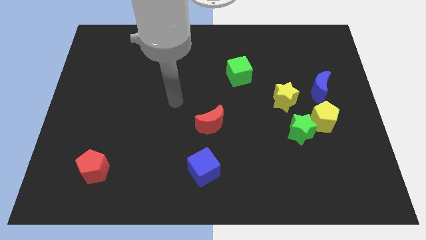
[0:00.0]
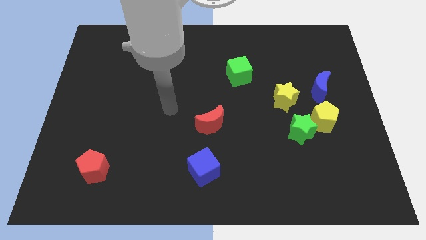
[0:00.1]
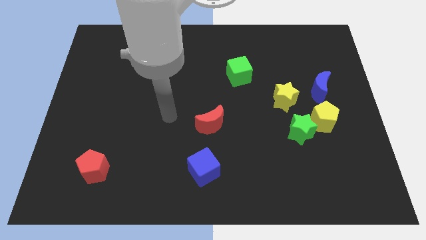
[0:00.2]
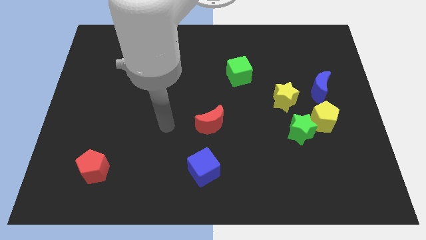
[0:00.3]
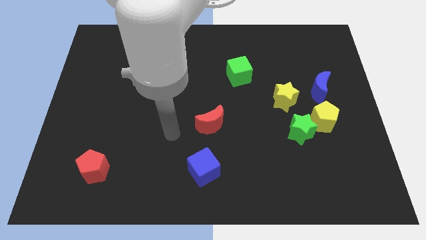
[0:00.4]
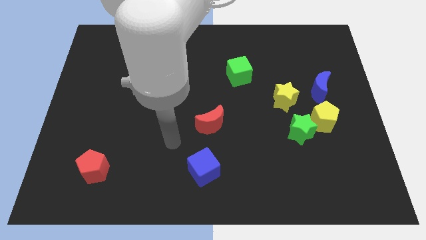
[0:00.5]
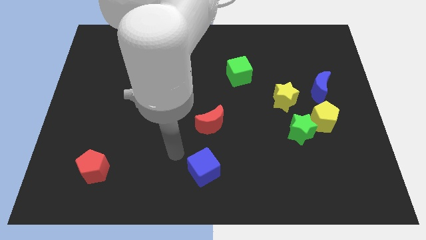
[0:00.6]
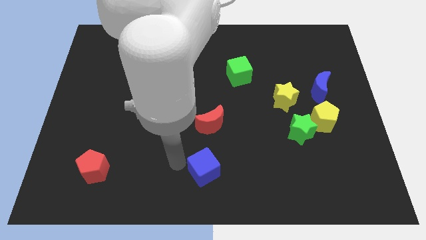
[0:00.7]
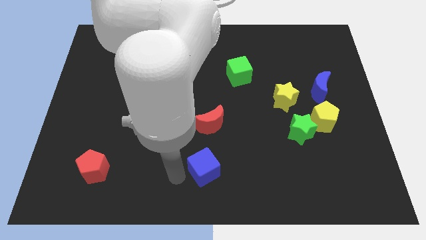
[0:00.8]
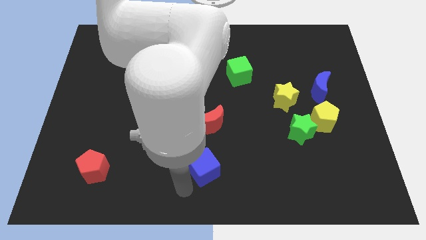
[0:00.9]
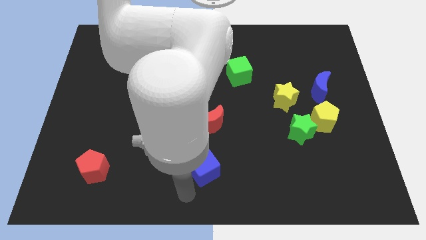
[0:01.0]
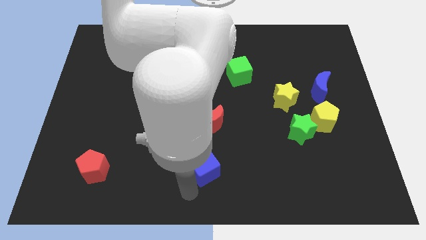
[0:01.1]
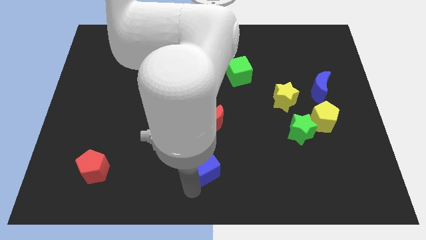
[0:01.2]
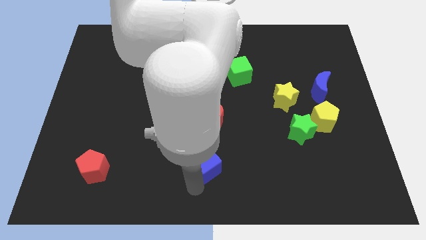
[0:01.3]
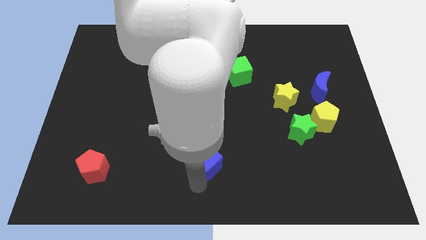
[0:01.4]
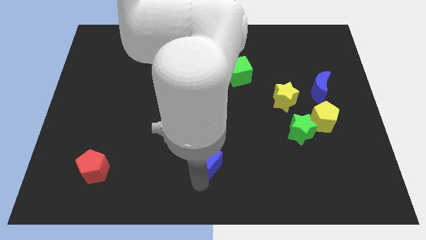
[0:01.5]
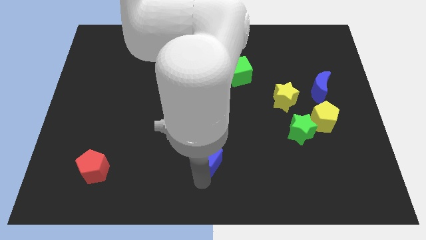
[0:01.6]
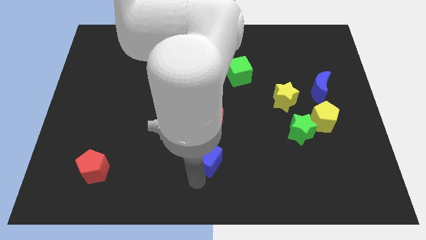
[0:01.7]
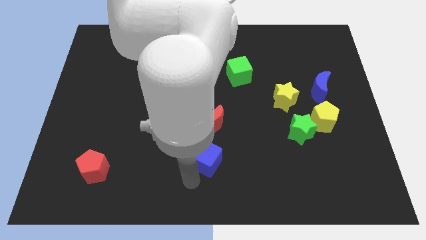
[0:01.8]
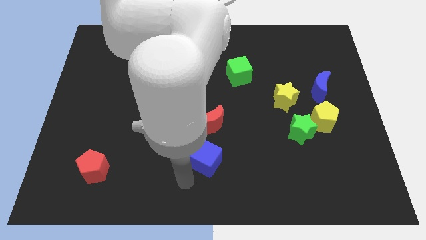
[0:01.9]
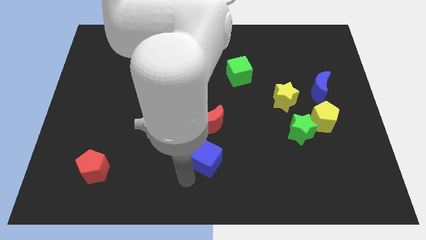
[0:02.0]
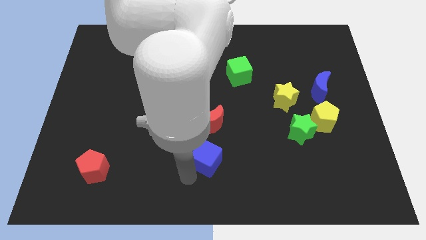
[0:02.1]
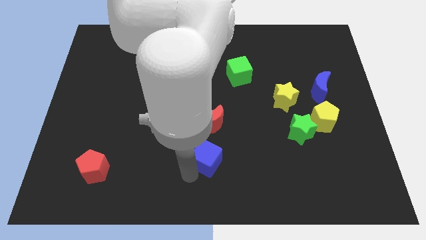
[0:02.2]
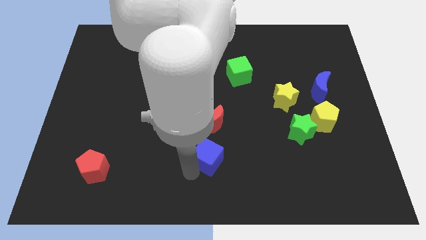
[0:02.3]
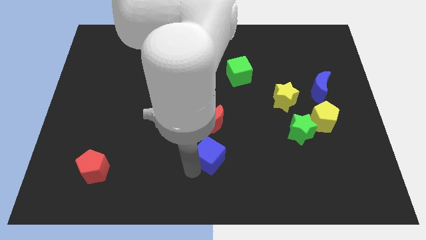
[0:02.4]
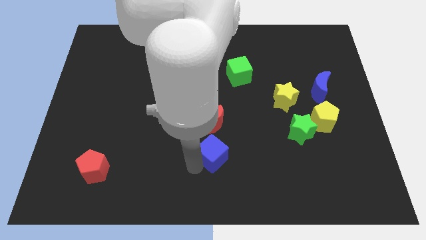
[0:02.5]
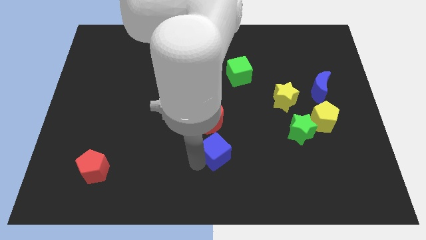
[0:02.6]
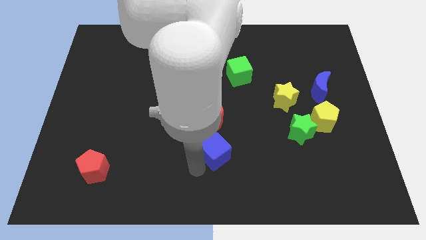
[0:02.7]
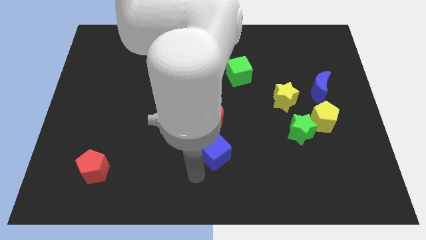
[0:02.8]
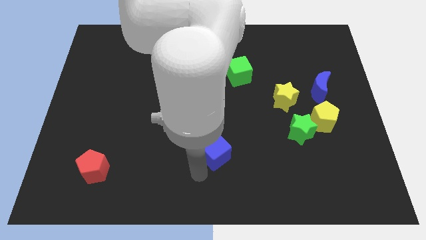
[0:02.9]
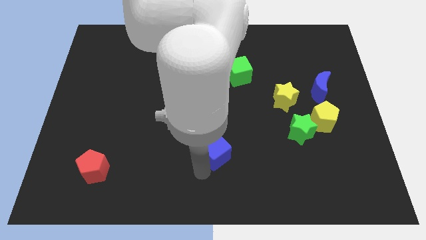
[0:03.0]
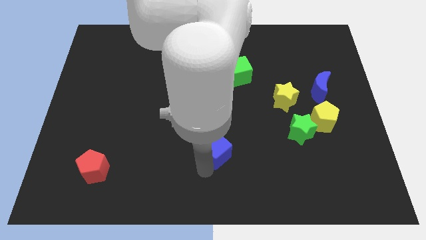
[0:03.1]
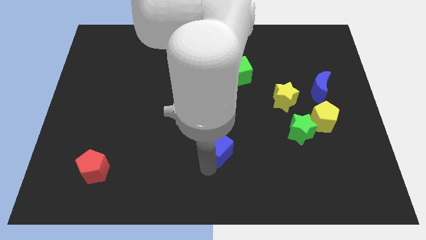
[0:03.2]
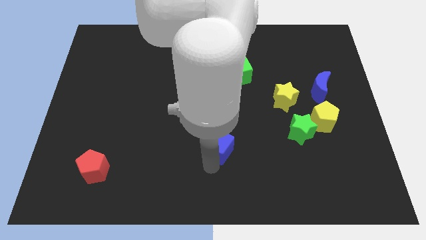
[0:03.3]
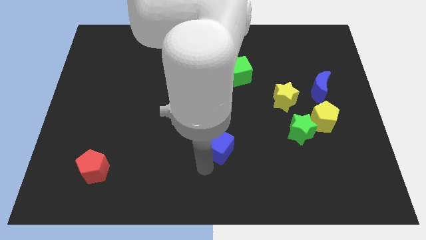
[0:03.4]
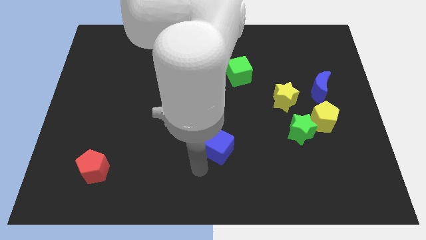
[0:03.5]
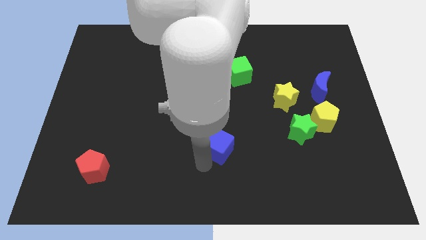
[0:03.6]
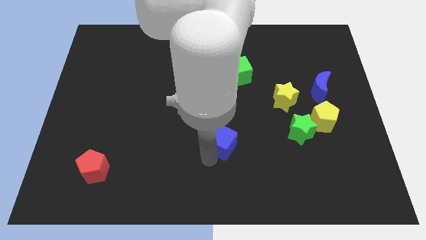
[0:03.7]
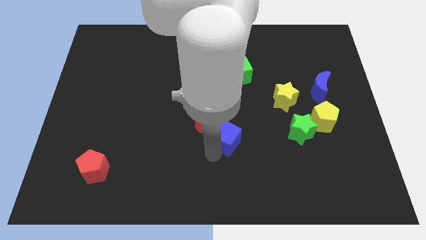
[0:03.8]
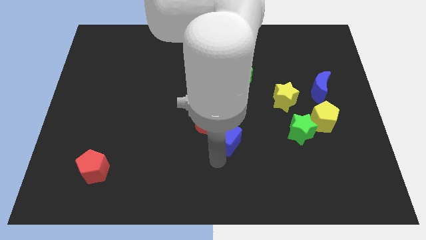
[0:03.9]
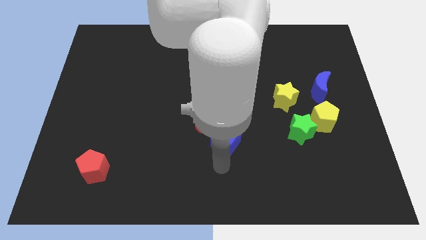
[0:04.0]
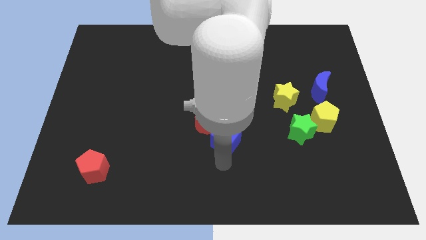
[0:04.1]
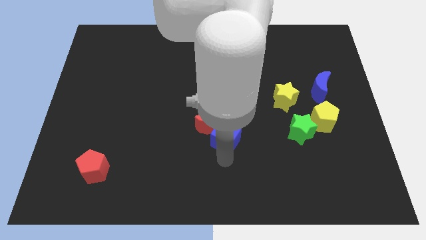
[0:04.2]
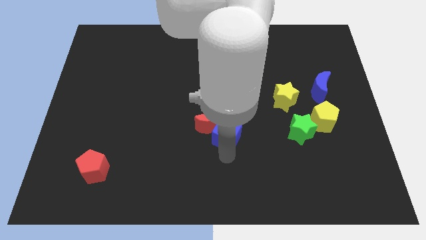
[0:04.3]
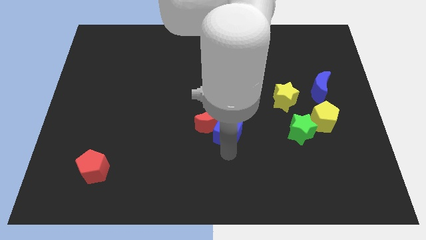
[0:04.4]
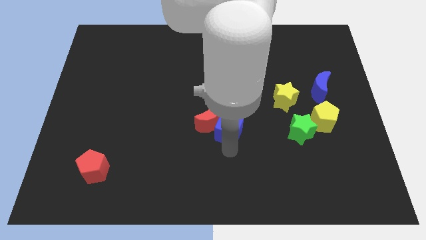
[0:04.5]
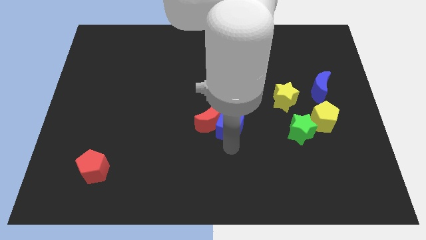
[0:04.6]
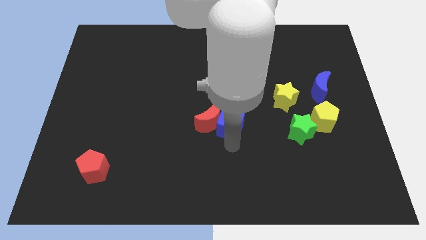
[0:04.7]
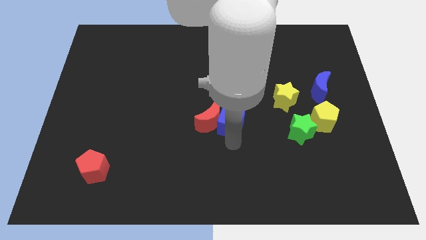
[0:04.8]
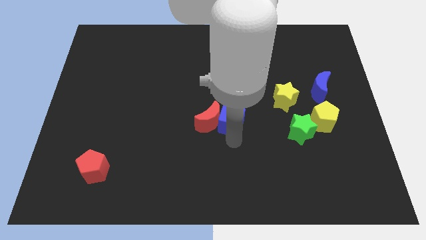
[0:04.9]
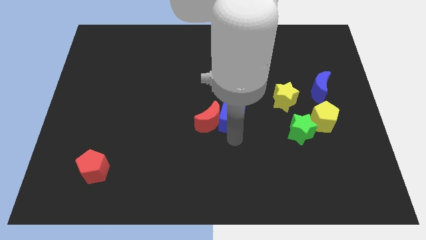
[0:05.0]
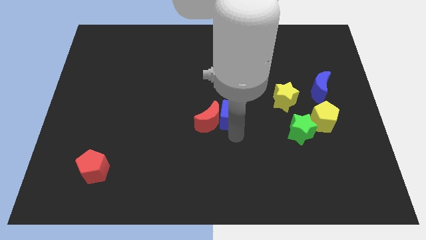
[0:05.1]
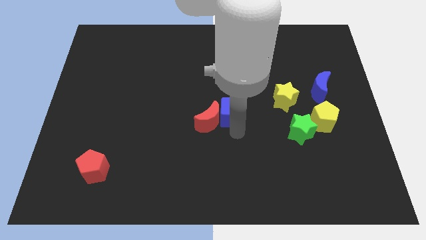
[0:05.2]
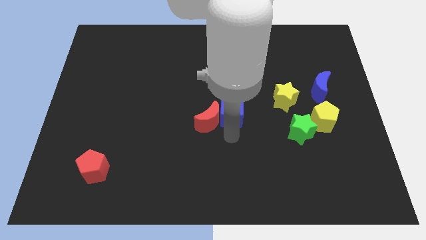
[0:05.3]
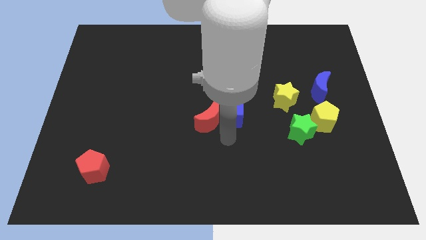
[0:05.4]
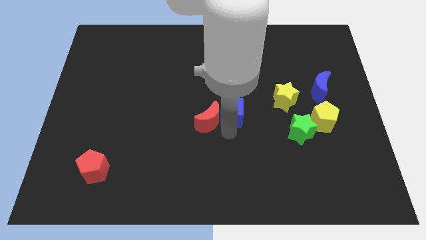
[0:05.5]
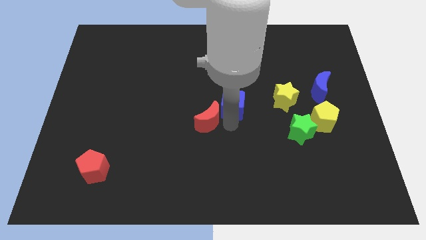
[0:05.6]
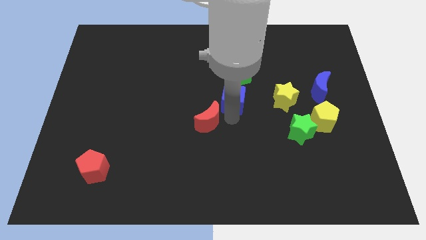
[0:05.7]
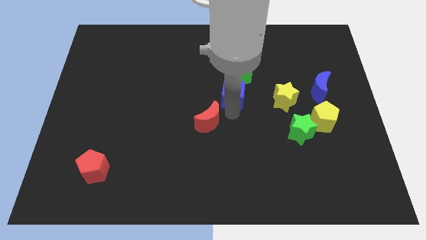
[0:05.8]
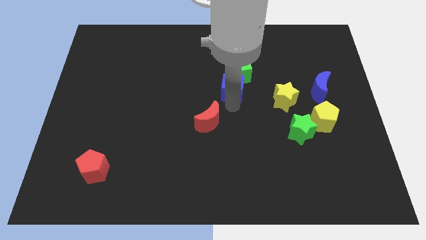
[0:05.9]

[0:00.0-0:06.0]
move the blue cube close to the green cube

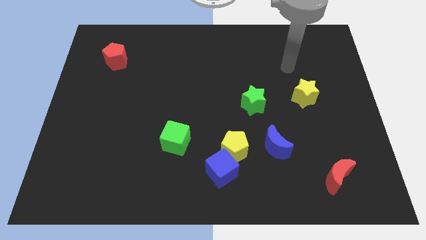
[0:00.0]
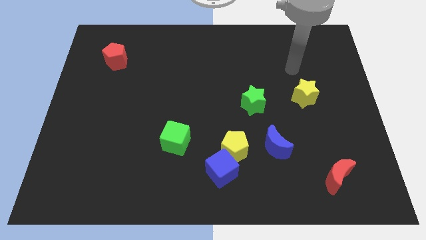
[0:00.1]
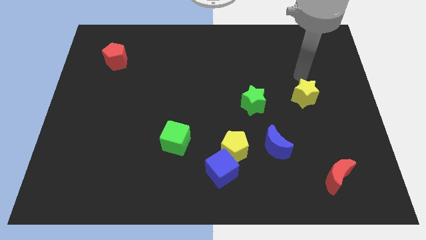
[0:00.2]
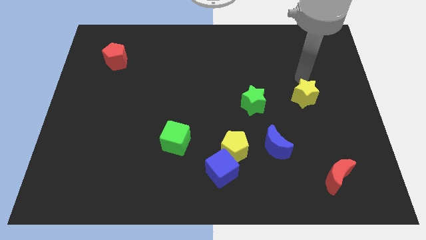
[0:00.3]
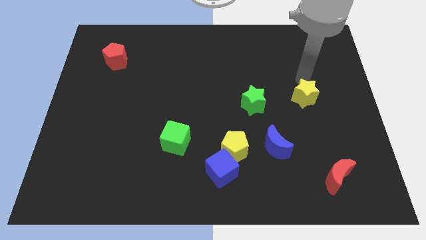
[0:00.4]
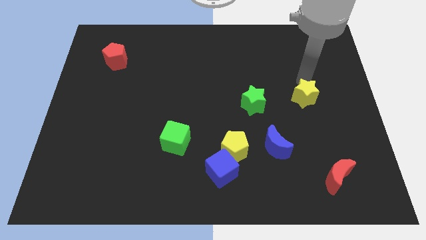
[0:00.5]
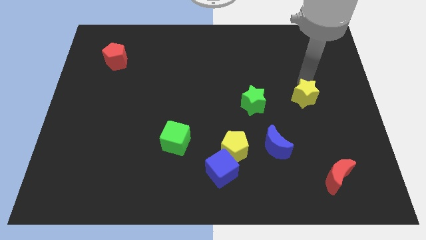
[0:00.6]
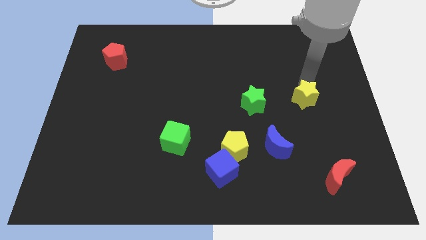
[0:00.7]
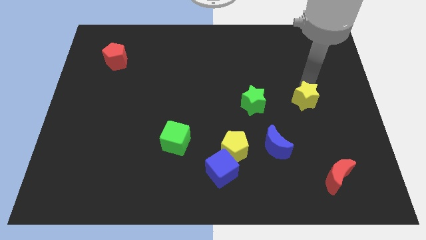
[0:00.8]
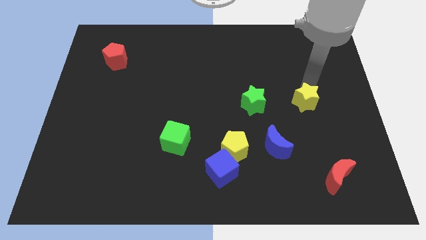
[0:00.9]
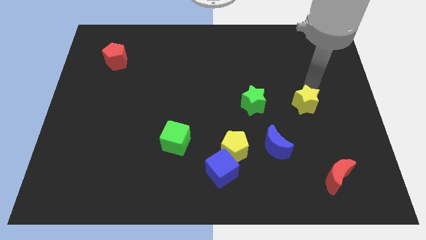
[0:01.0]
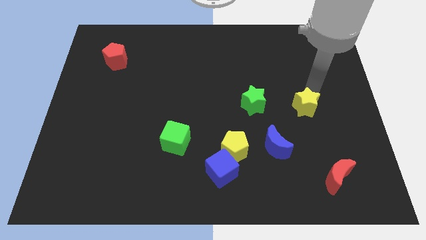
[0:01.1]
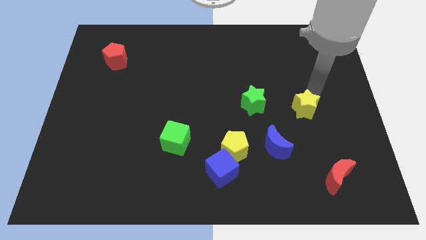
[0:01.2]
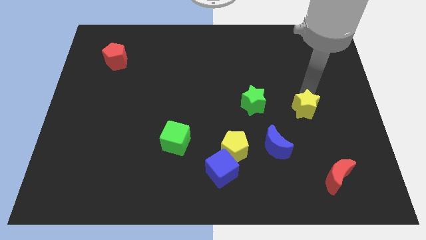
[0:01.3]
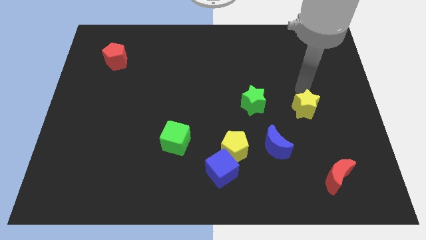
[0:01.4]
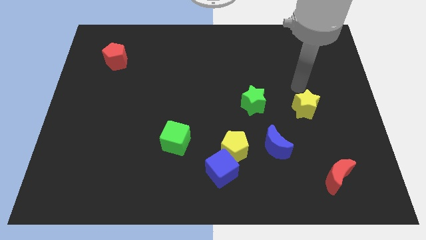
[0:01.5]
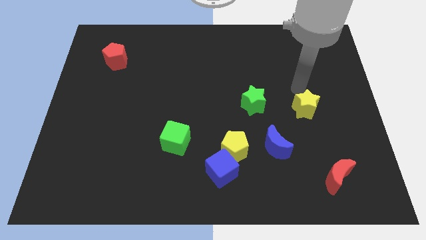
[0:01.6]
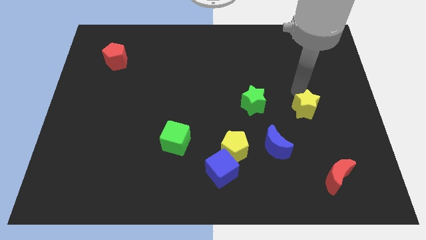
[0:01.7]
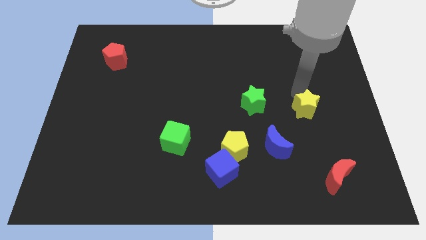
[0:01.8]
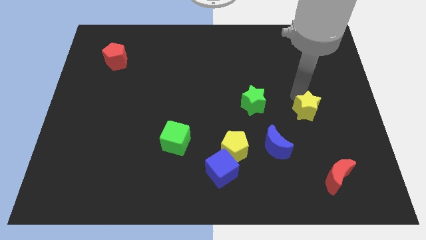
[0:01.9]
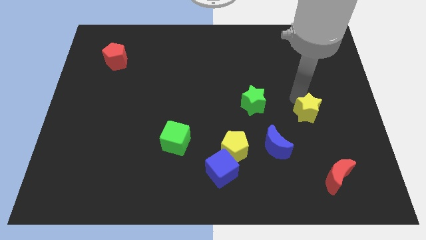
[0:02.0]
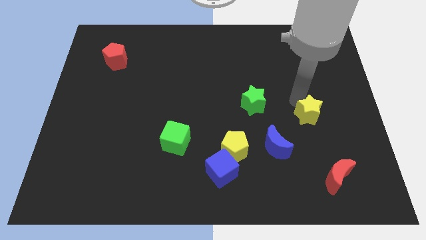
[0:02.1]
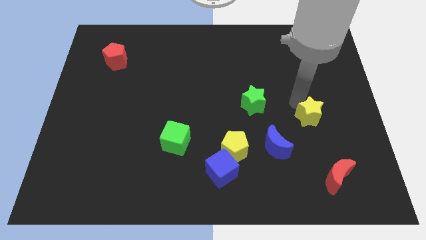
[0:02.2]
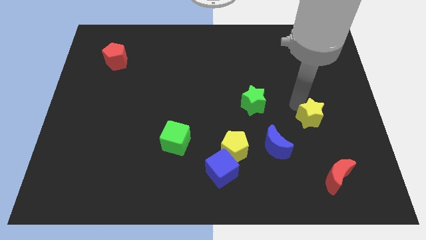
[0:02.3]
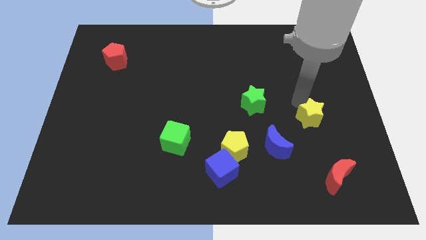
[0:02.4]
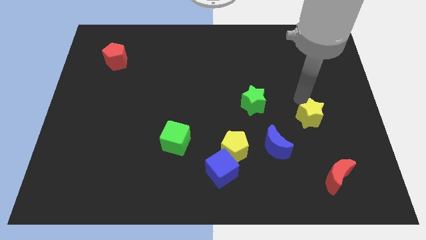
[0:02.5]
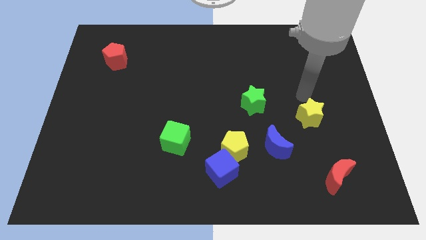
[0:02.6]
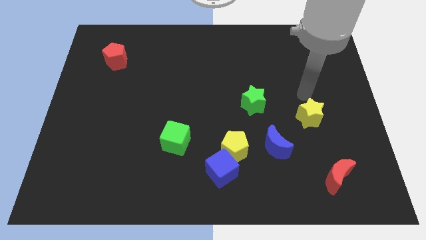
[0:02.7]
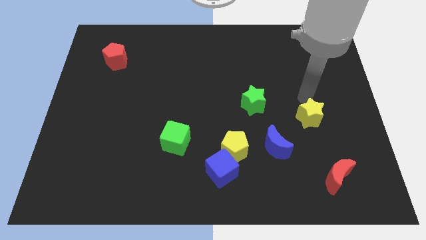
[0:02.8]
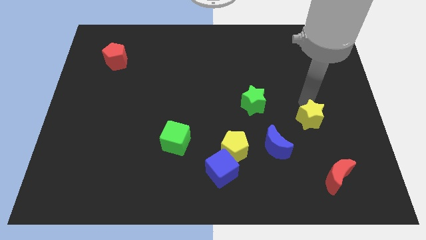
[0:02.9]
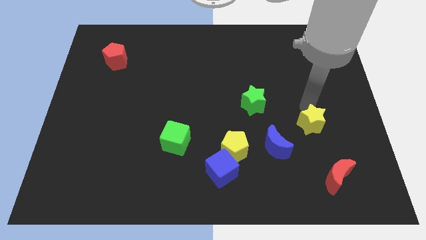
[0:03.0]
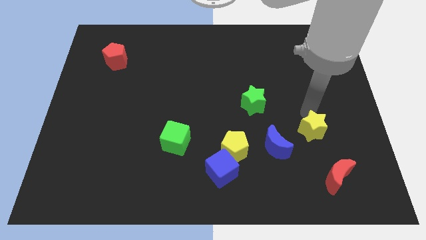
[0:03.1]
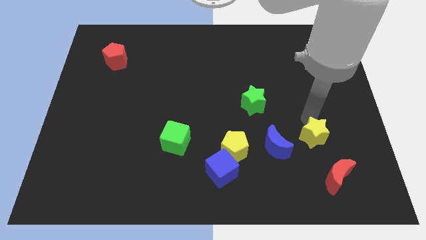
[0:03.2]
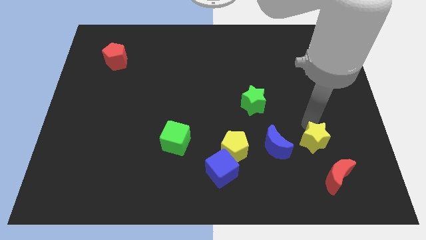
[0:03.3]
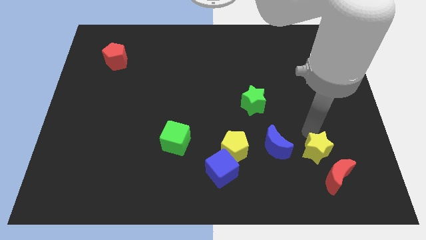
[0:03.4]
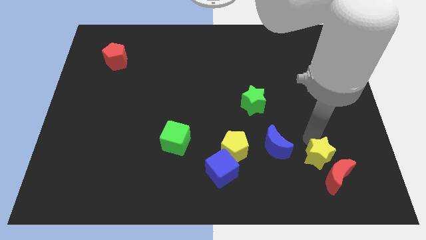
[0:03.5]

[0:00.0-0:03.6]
slide the yellow star next to the red moon
